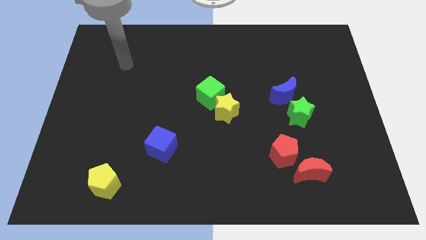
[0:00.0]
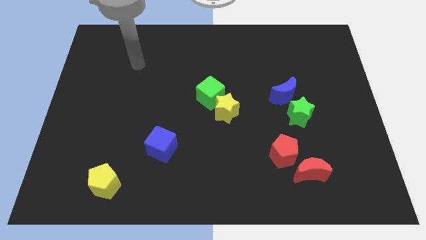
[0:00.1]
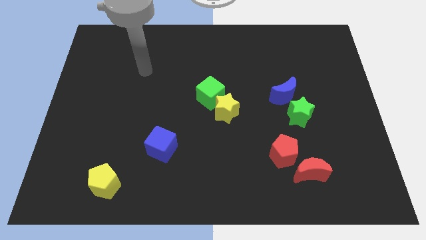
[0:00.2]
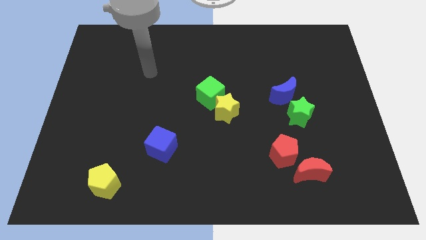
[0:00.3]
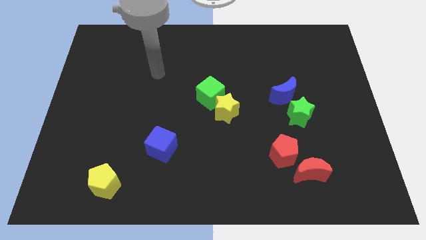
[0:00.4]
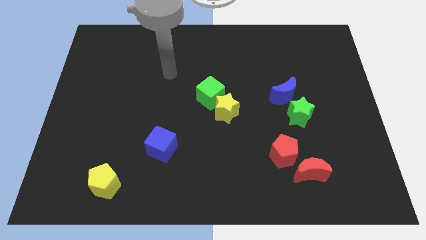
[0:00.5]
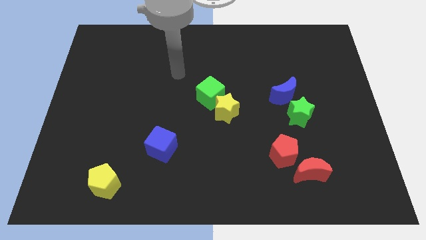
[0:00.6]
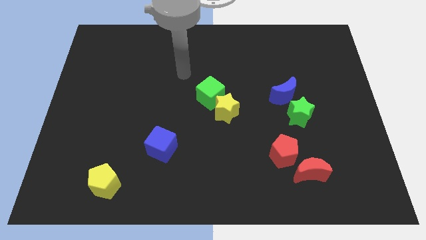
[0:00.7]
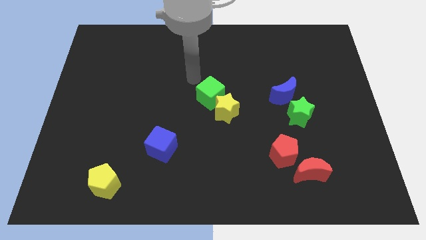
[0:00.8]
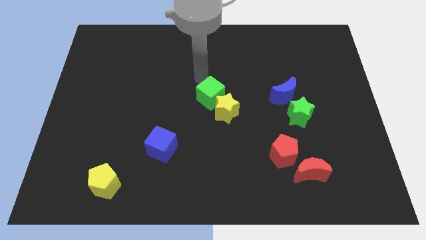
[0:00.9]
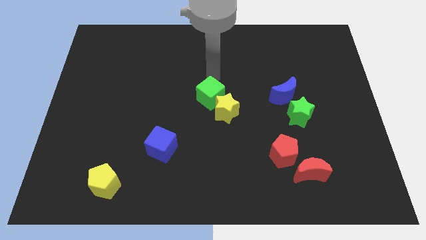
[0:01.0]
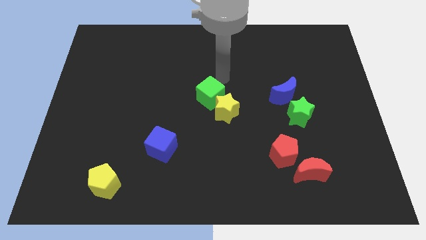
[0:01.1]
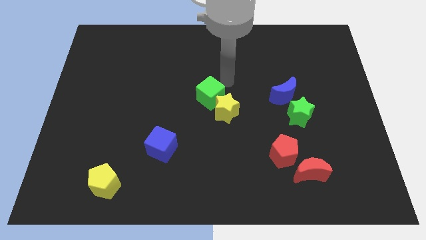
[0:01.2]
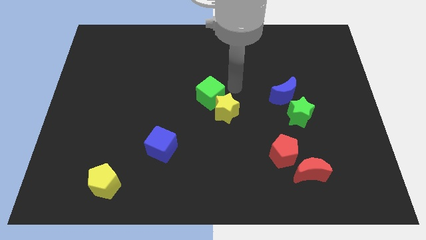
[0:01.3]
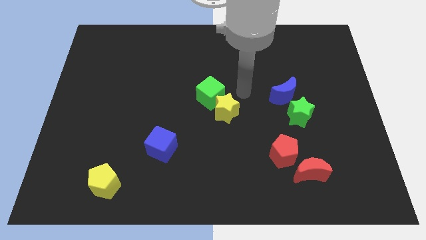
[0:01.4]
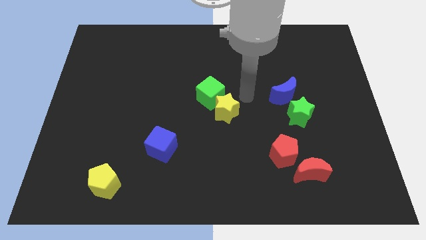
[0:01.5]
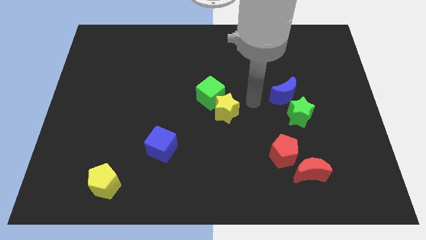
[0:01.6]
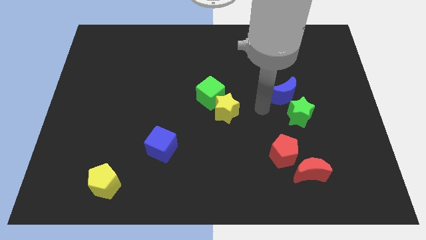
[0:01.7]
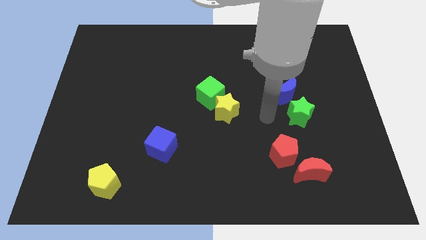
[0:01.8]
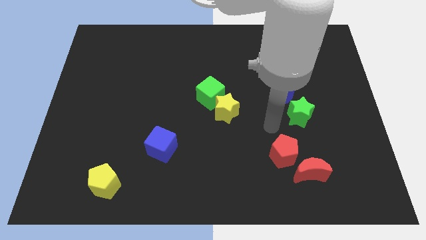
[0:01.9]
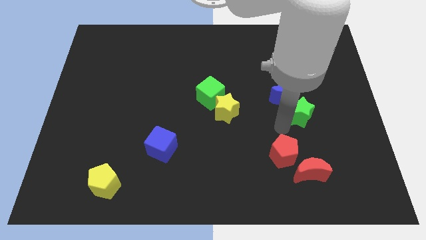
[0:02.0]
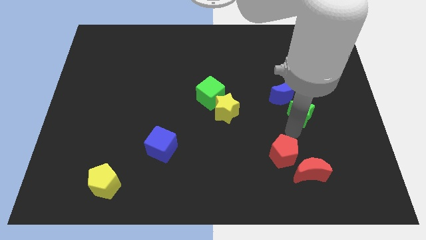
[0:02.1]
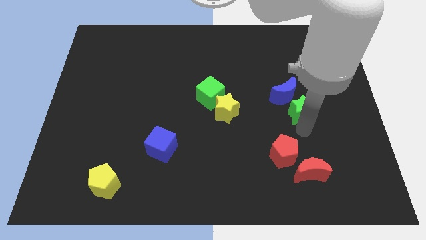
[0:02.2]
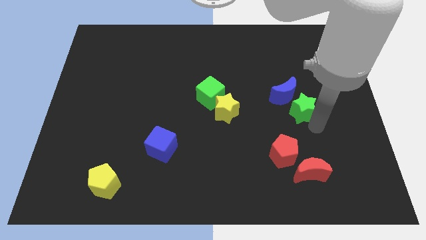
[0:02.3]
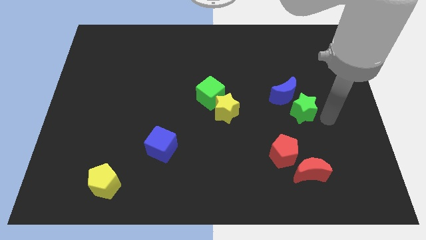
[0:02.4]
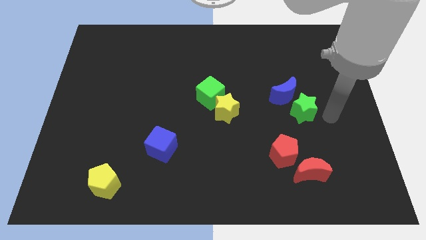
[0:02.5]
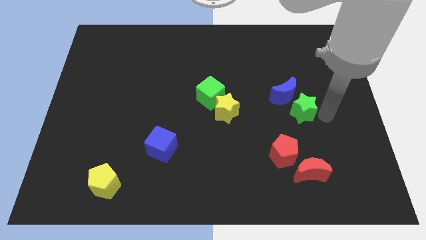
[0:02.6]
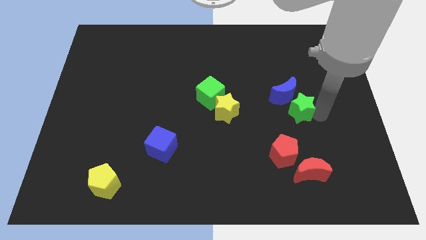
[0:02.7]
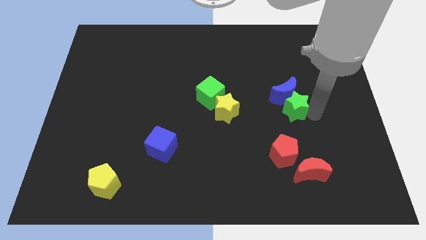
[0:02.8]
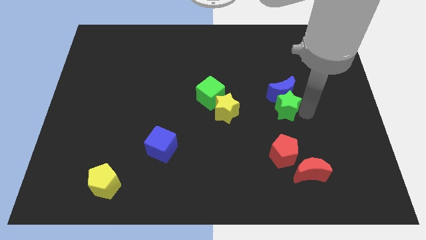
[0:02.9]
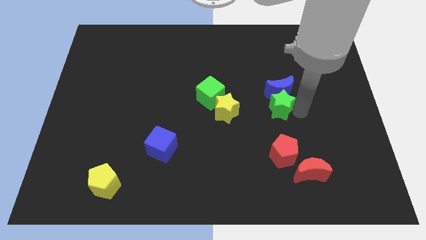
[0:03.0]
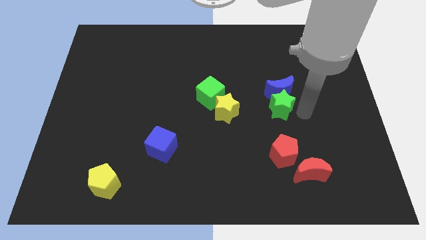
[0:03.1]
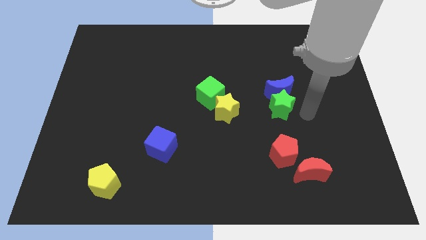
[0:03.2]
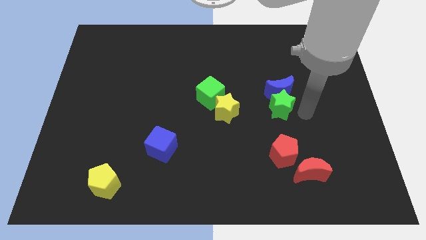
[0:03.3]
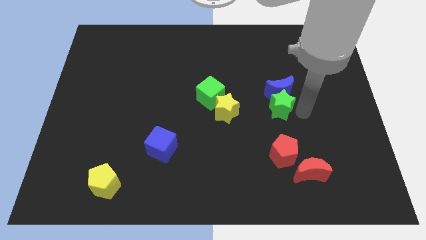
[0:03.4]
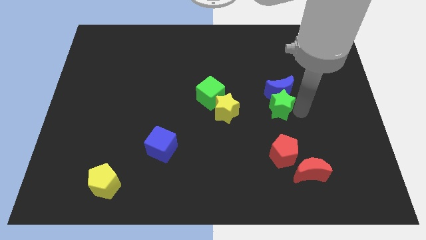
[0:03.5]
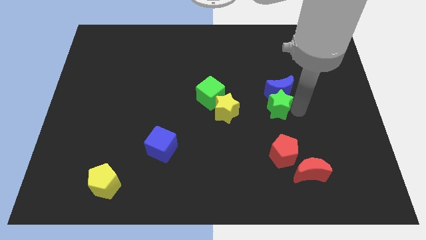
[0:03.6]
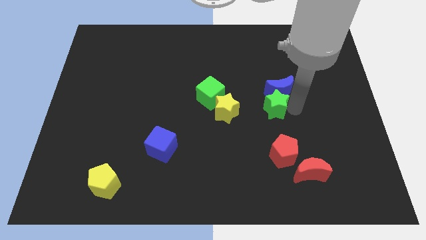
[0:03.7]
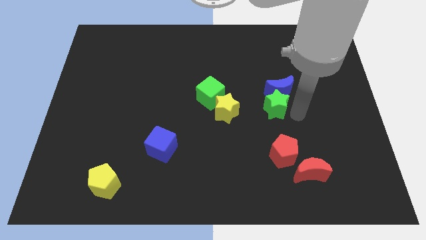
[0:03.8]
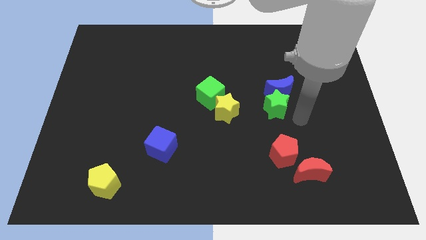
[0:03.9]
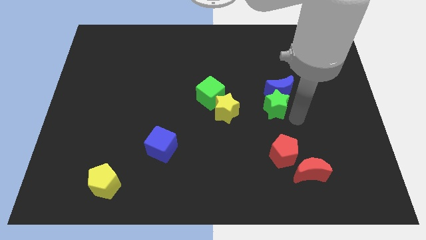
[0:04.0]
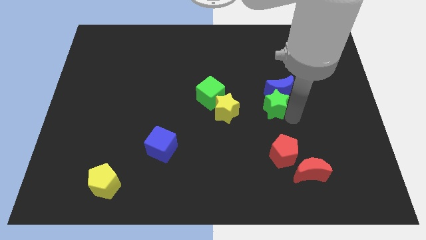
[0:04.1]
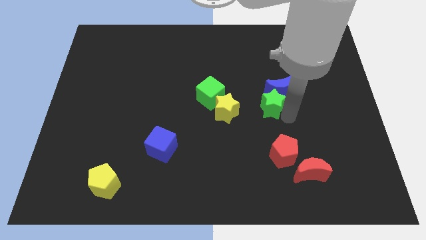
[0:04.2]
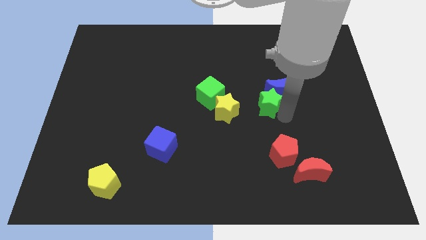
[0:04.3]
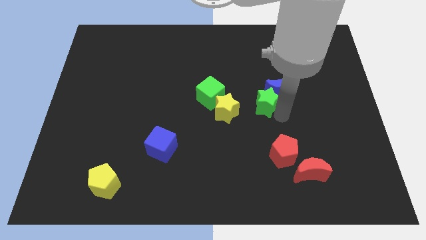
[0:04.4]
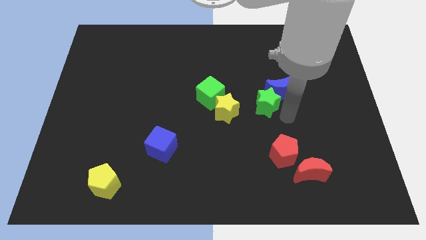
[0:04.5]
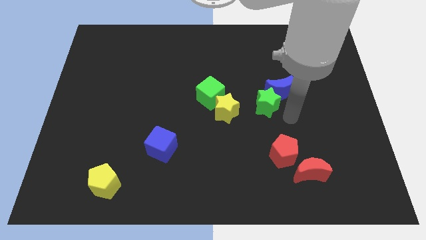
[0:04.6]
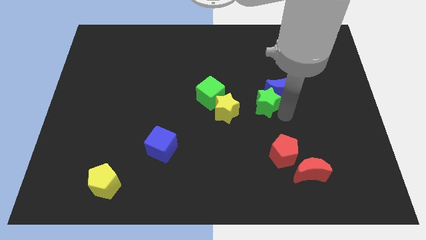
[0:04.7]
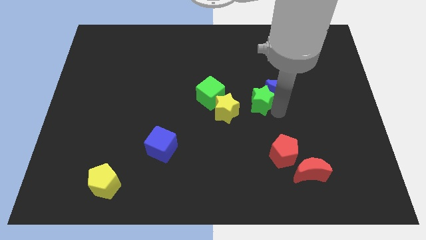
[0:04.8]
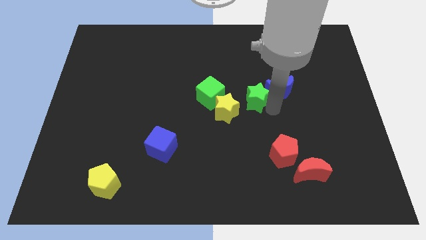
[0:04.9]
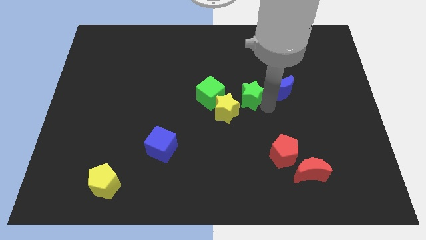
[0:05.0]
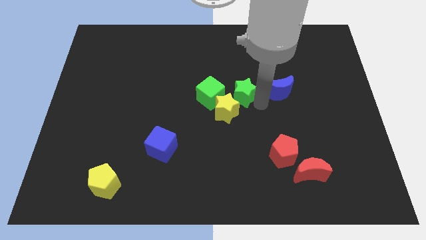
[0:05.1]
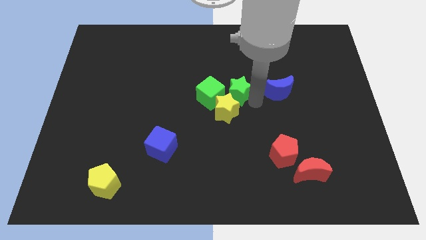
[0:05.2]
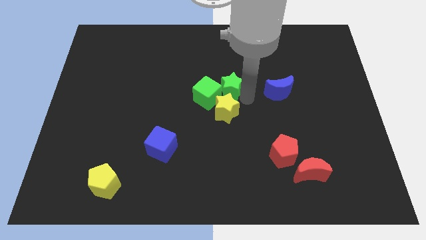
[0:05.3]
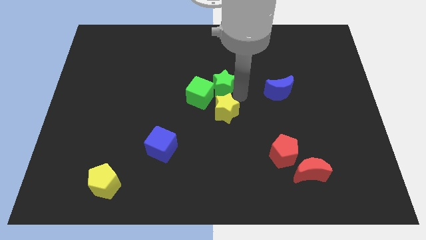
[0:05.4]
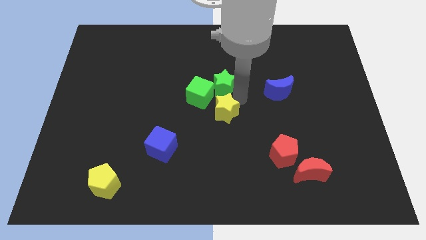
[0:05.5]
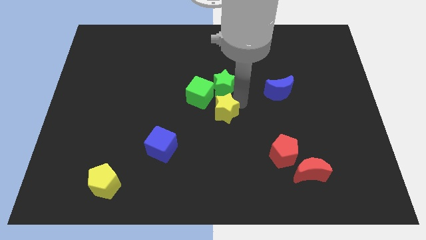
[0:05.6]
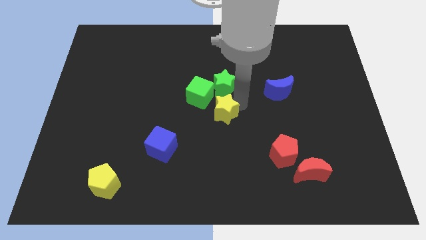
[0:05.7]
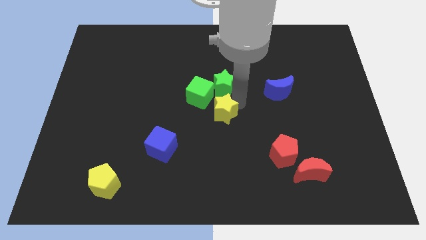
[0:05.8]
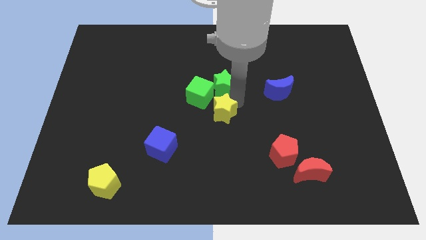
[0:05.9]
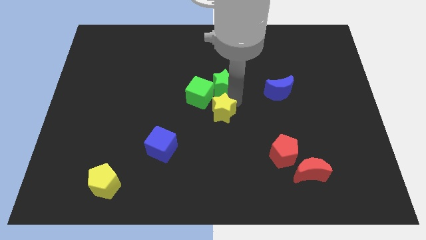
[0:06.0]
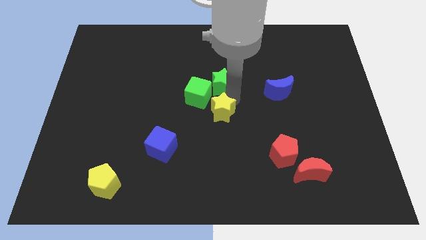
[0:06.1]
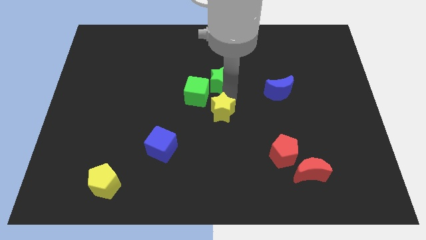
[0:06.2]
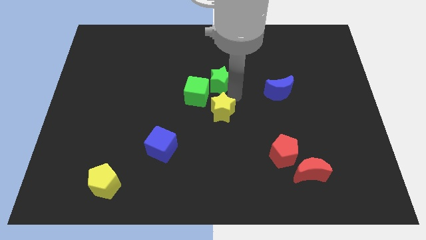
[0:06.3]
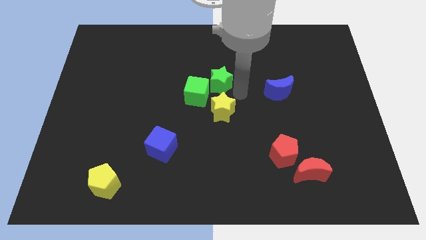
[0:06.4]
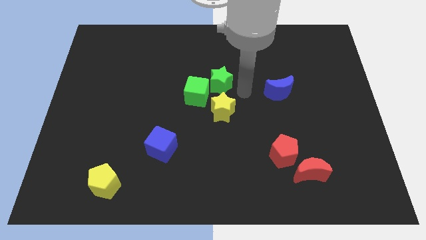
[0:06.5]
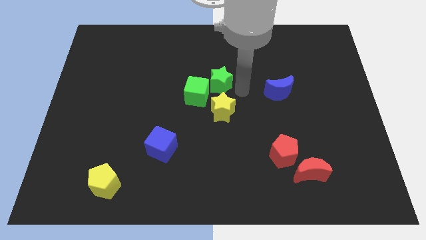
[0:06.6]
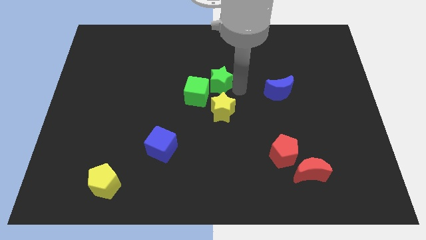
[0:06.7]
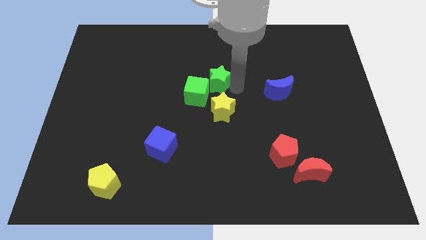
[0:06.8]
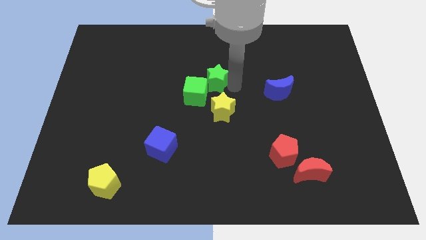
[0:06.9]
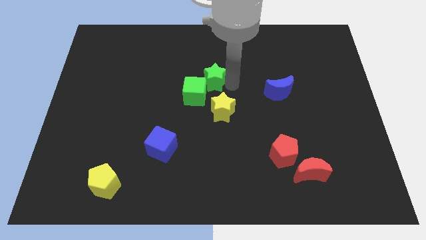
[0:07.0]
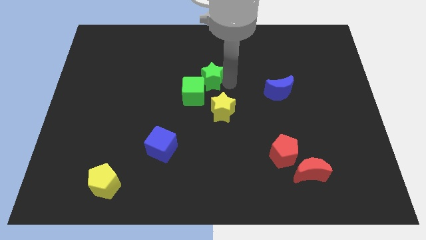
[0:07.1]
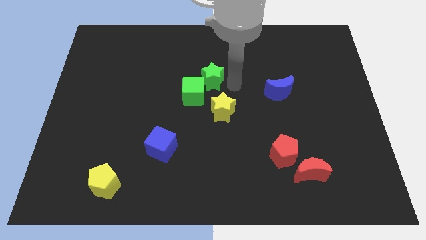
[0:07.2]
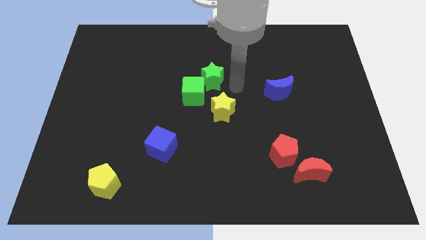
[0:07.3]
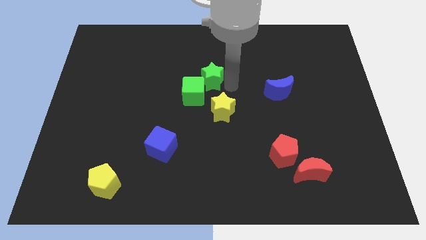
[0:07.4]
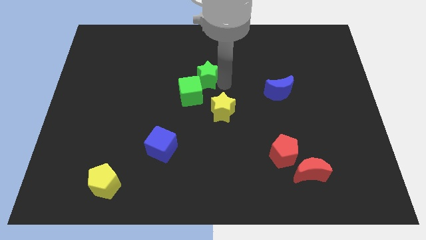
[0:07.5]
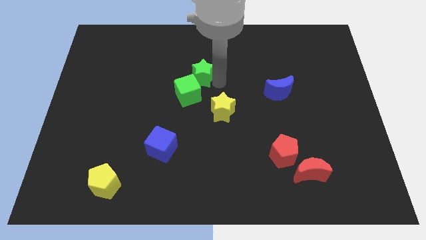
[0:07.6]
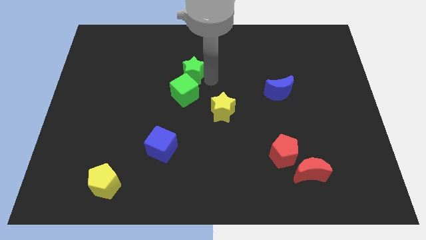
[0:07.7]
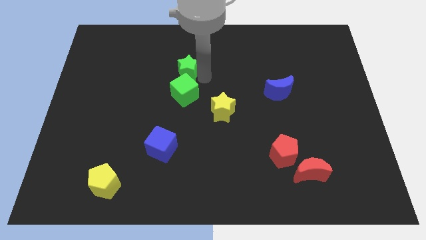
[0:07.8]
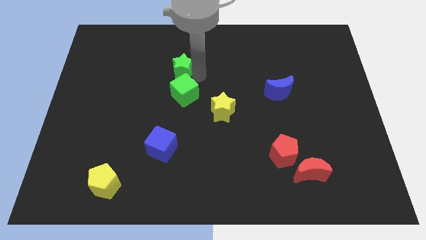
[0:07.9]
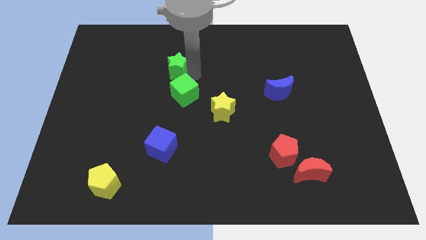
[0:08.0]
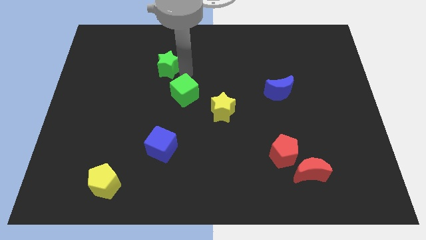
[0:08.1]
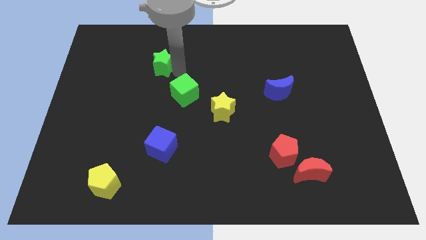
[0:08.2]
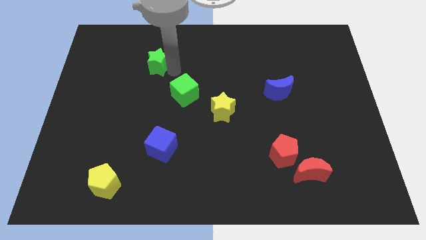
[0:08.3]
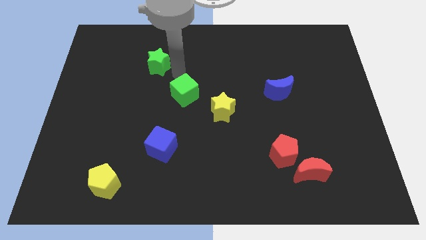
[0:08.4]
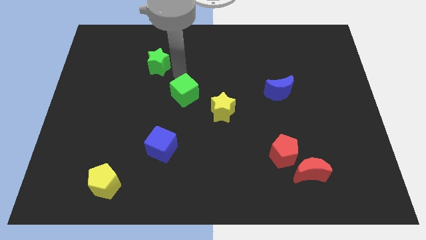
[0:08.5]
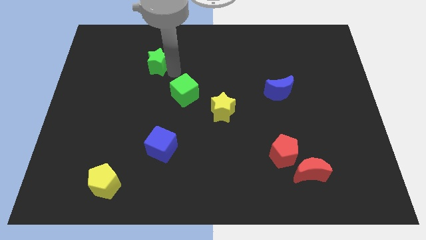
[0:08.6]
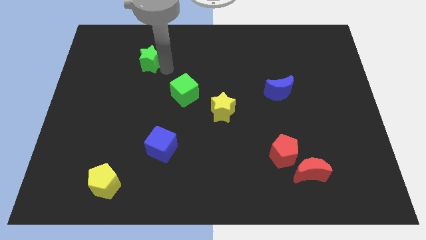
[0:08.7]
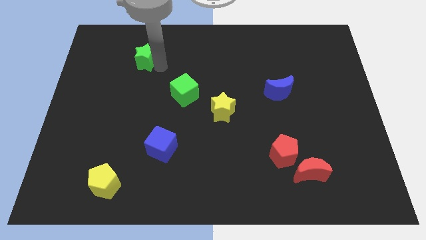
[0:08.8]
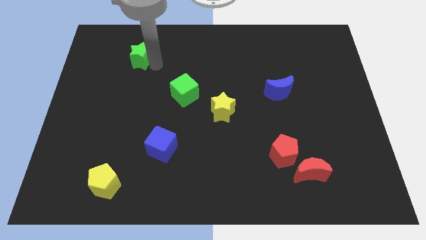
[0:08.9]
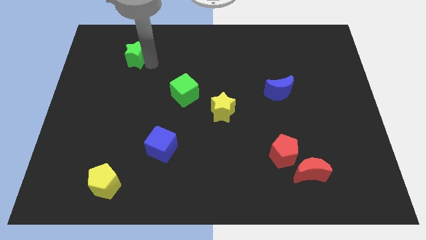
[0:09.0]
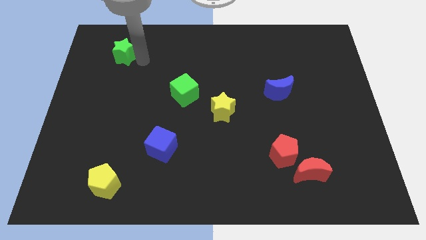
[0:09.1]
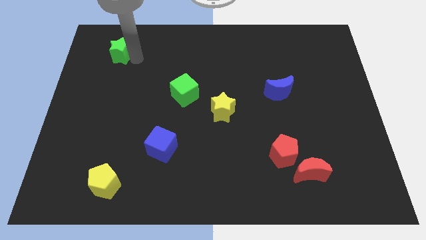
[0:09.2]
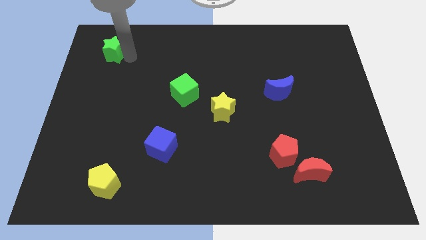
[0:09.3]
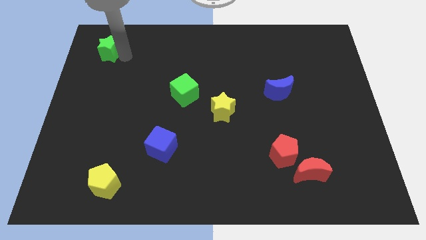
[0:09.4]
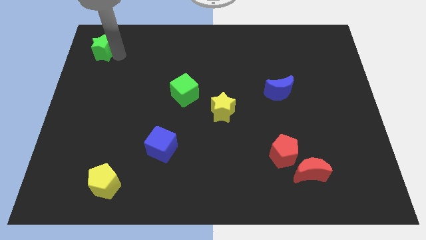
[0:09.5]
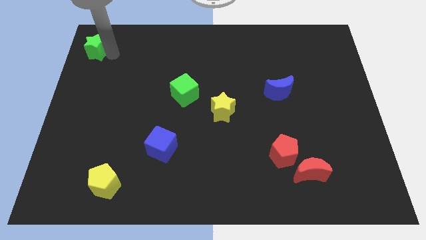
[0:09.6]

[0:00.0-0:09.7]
push the green star to the upper left corner
